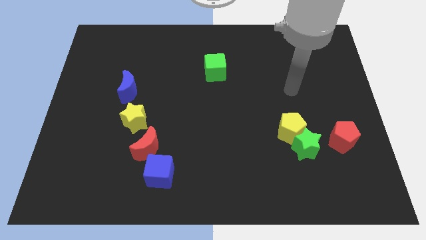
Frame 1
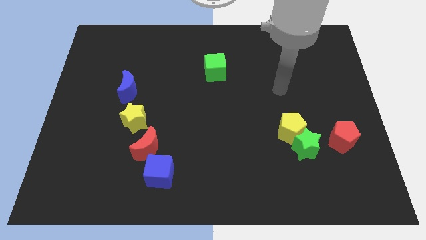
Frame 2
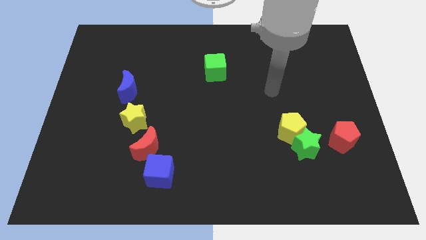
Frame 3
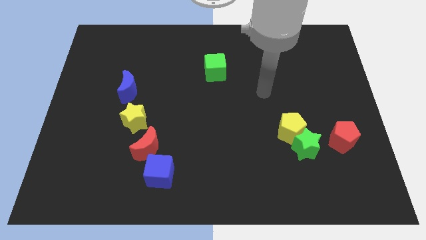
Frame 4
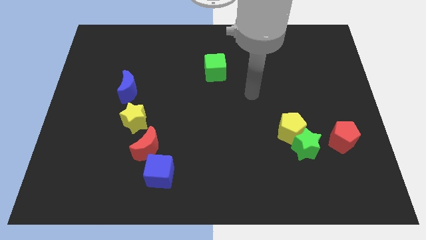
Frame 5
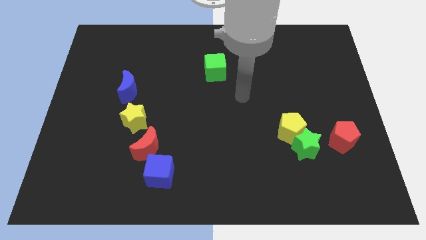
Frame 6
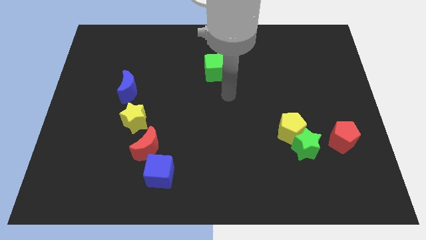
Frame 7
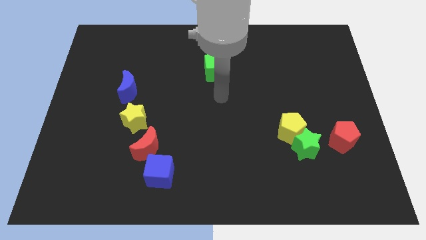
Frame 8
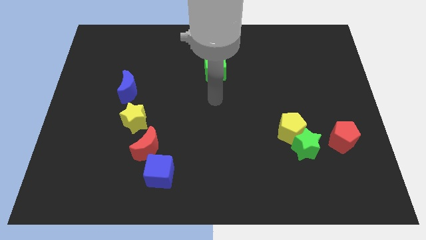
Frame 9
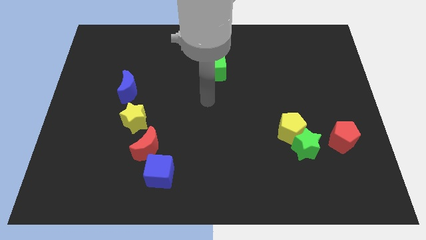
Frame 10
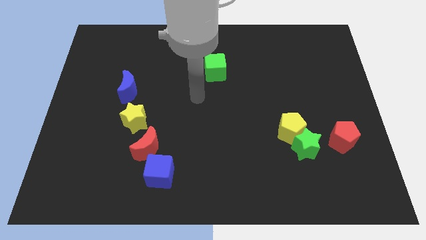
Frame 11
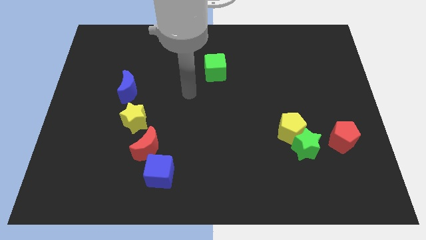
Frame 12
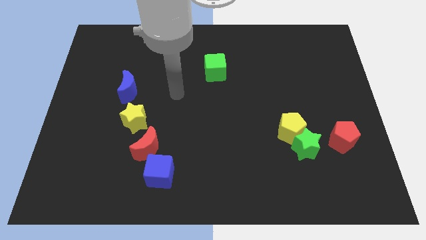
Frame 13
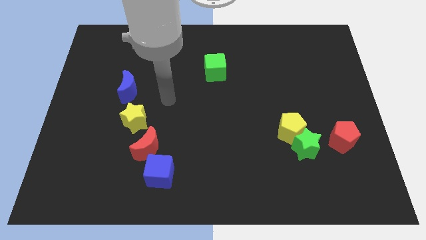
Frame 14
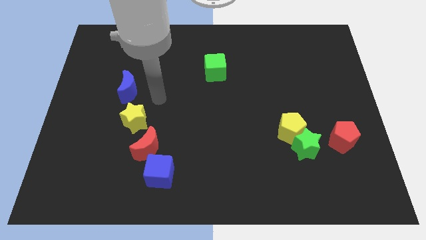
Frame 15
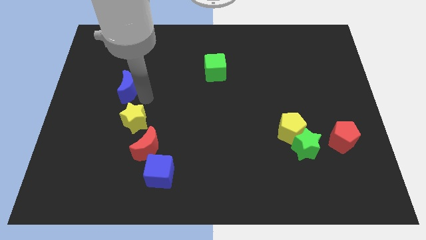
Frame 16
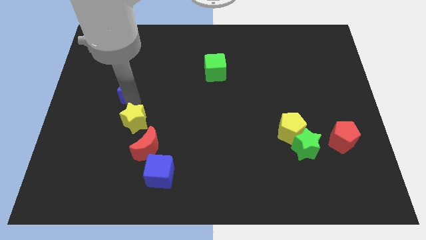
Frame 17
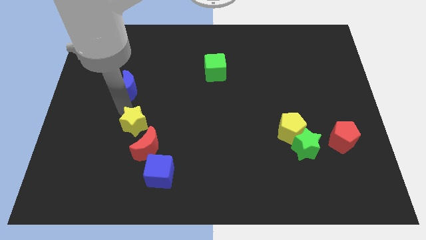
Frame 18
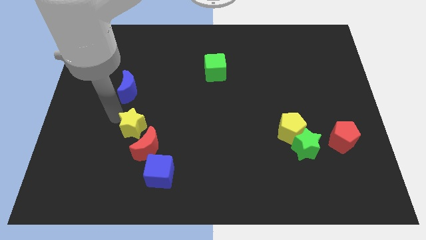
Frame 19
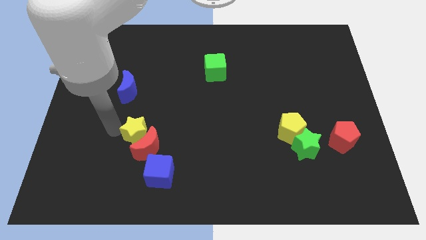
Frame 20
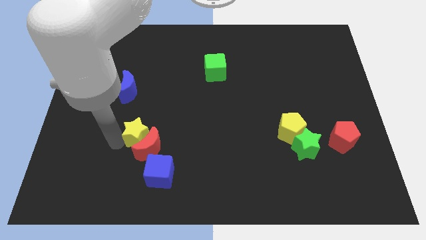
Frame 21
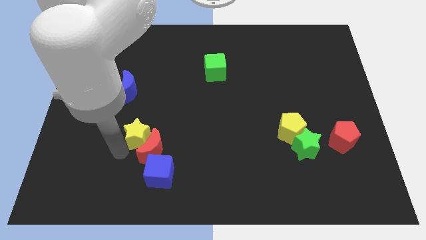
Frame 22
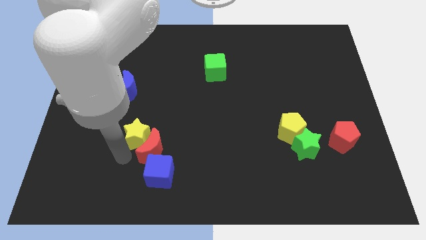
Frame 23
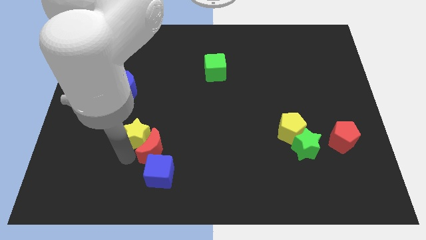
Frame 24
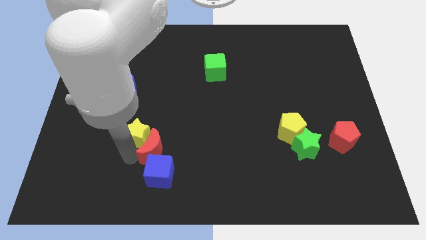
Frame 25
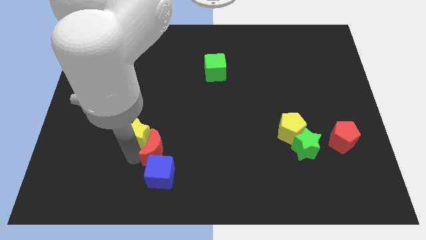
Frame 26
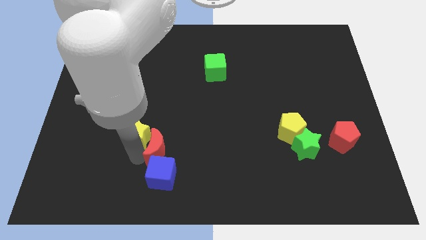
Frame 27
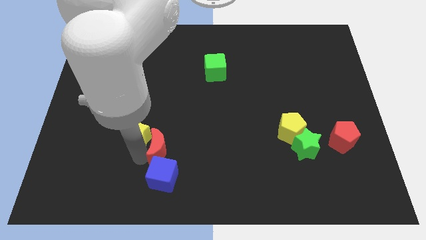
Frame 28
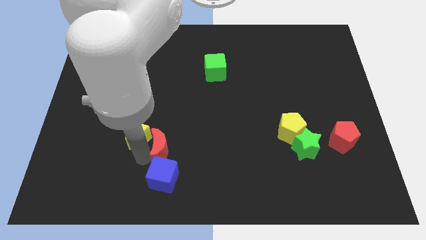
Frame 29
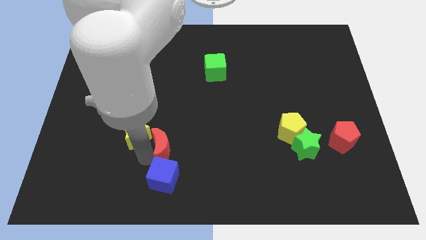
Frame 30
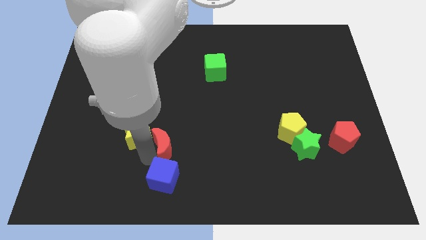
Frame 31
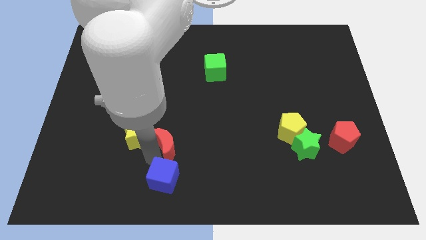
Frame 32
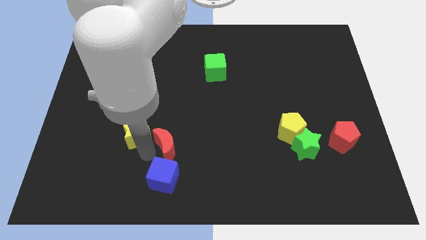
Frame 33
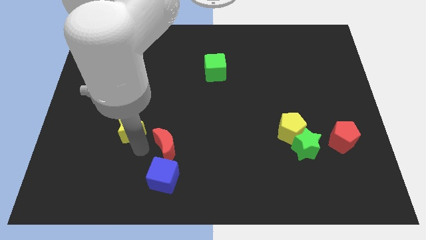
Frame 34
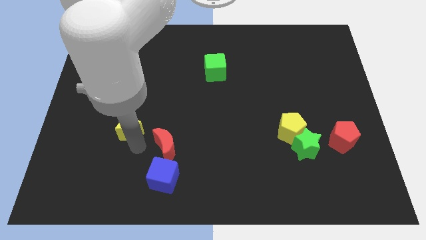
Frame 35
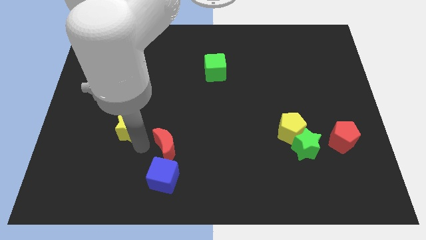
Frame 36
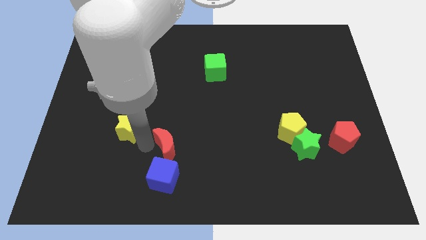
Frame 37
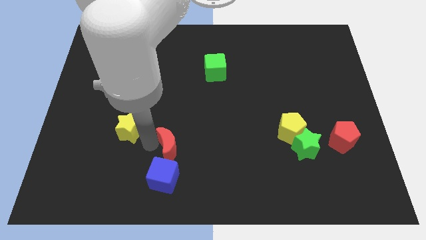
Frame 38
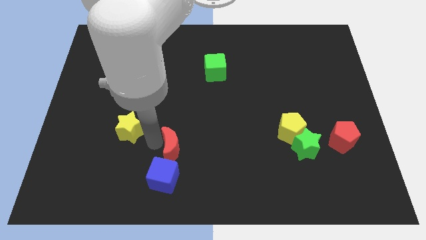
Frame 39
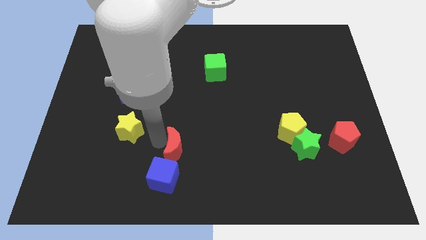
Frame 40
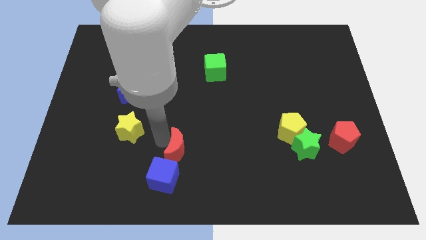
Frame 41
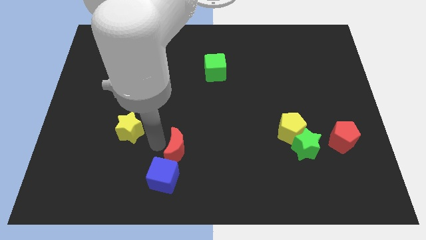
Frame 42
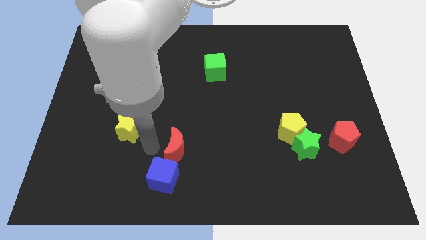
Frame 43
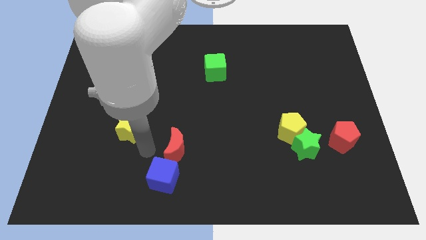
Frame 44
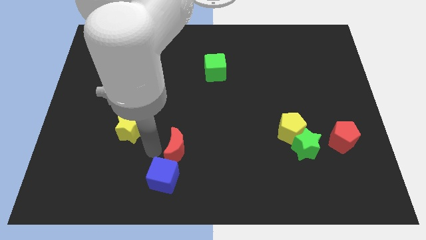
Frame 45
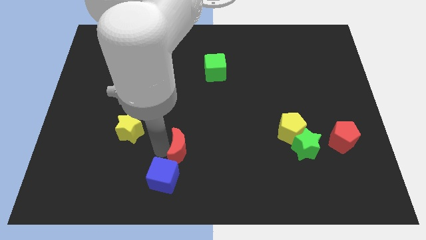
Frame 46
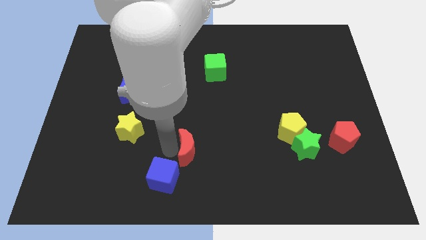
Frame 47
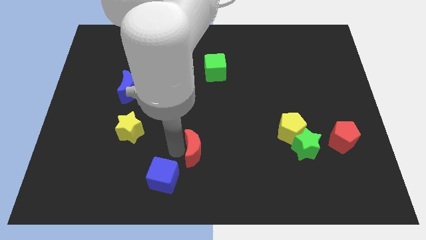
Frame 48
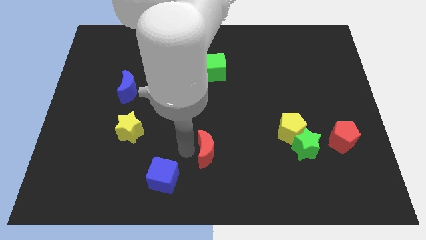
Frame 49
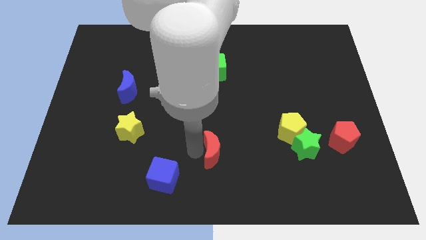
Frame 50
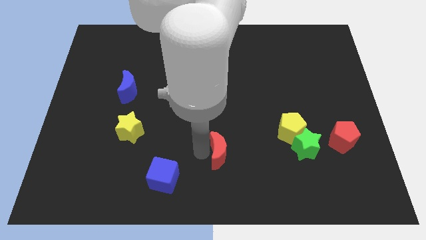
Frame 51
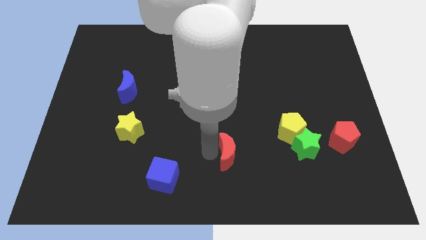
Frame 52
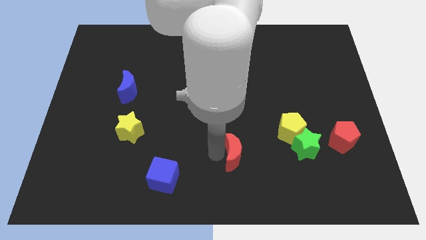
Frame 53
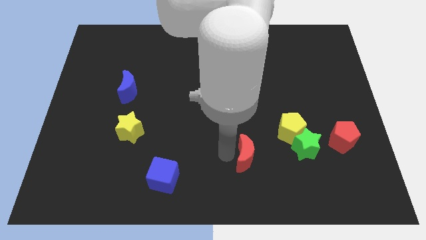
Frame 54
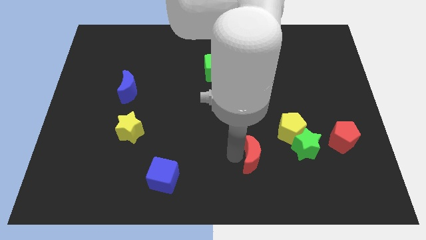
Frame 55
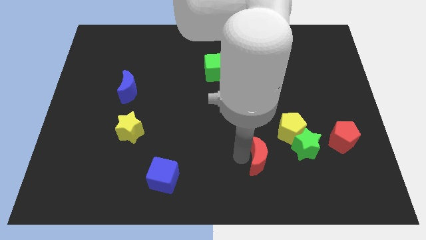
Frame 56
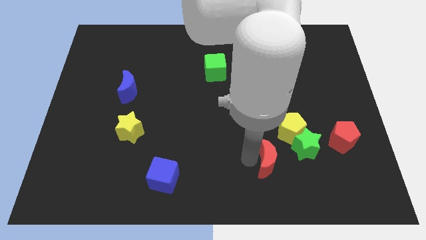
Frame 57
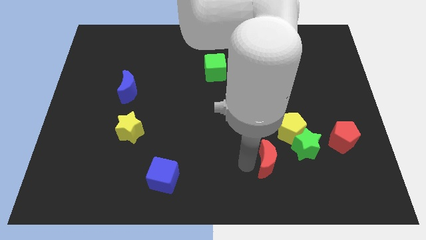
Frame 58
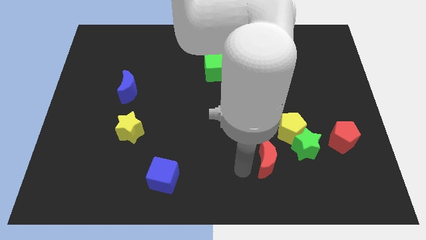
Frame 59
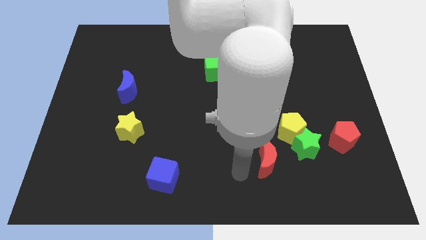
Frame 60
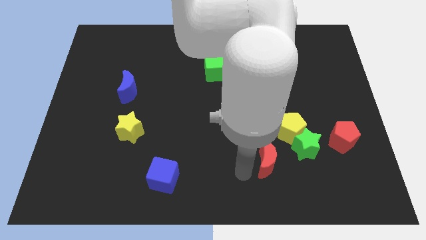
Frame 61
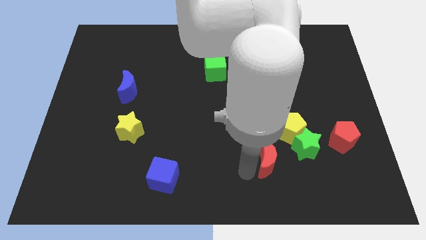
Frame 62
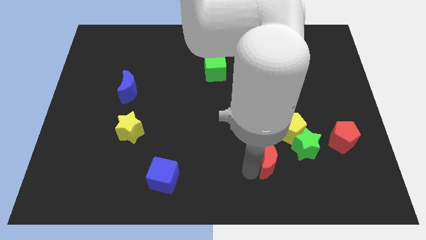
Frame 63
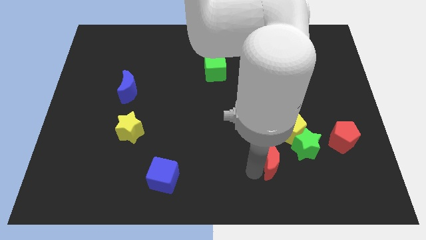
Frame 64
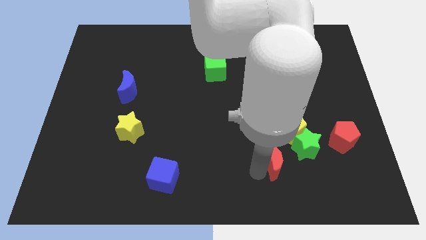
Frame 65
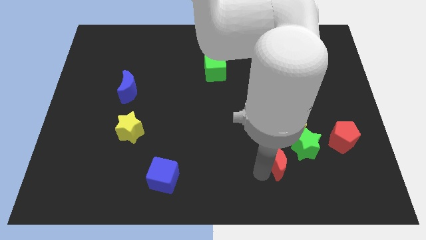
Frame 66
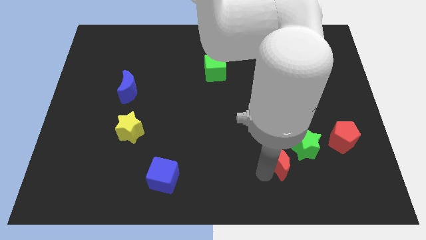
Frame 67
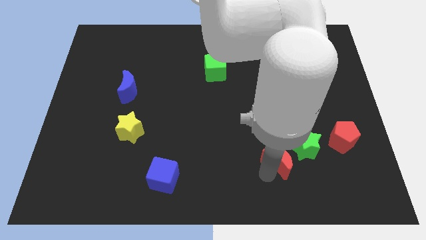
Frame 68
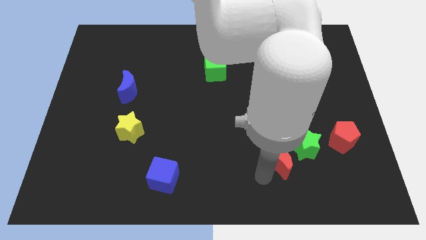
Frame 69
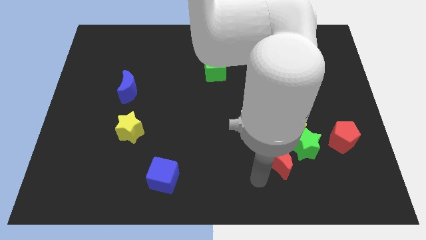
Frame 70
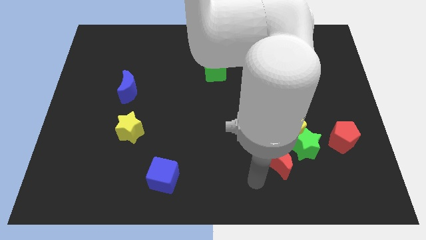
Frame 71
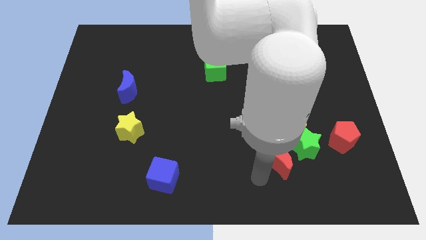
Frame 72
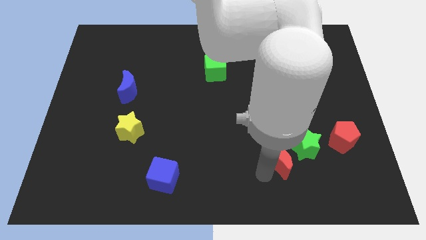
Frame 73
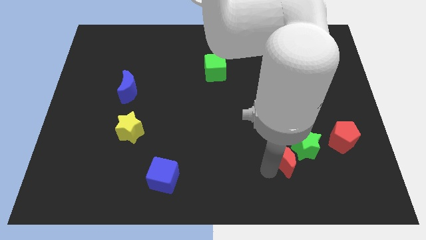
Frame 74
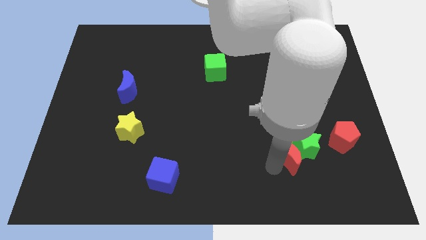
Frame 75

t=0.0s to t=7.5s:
push the red moon close to the green star
